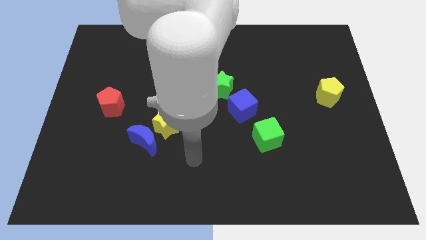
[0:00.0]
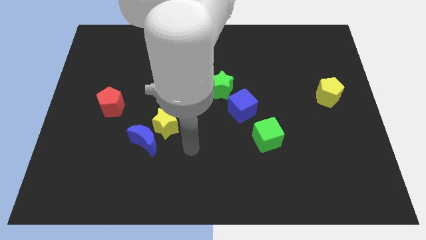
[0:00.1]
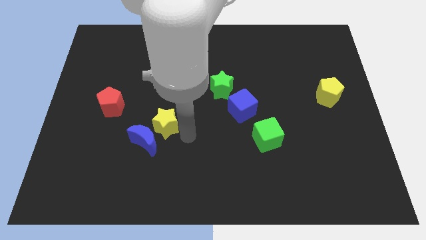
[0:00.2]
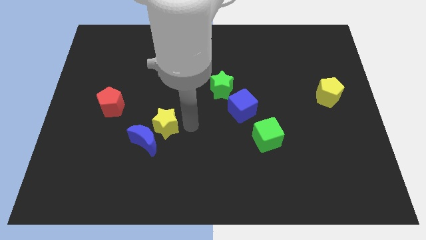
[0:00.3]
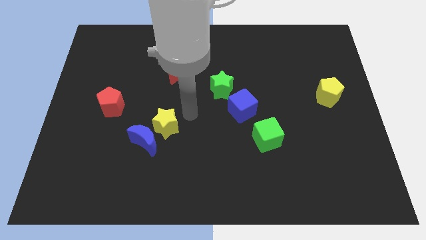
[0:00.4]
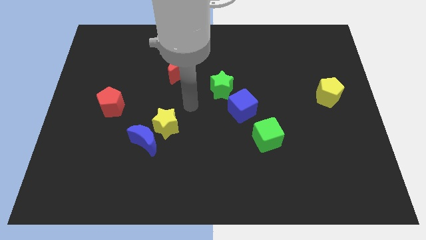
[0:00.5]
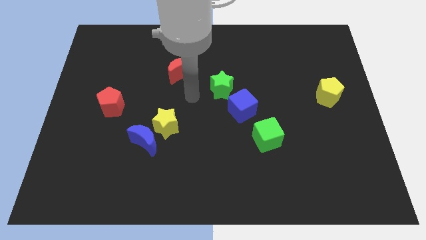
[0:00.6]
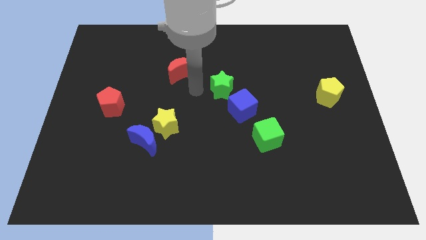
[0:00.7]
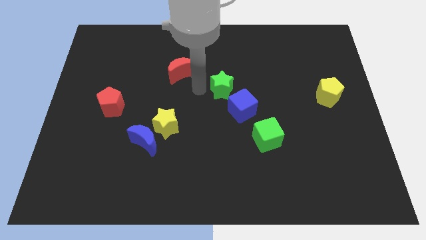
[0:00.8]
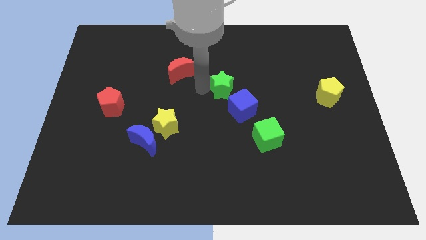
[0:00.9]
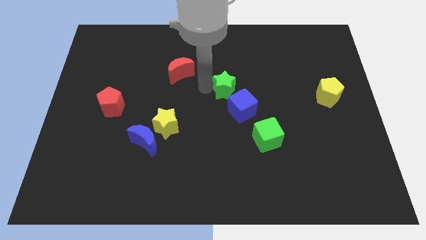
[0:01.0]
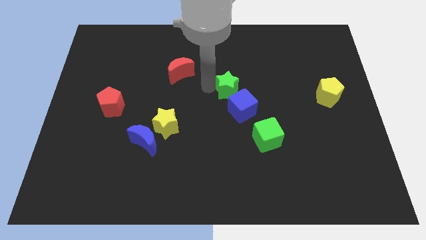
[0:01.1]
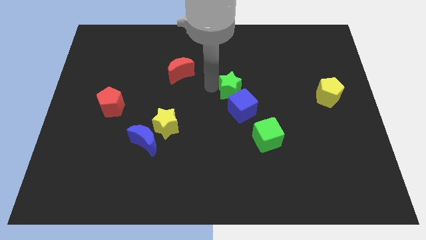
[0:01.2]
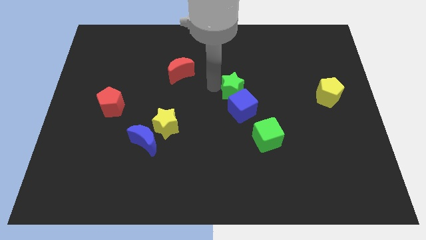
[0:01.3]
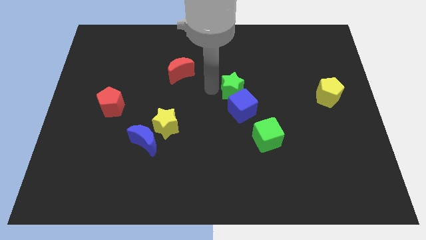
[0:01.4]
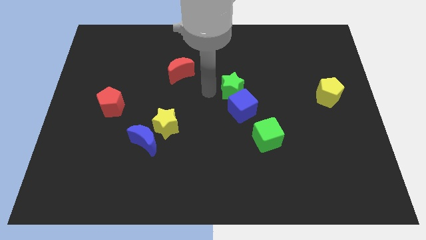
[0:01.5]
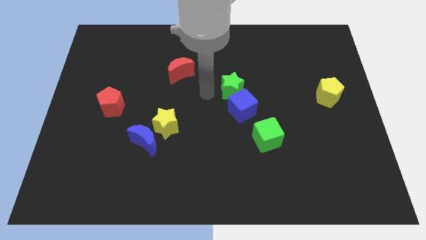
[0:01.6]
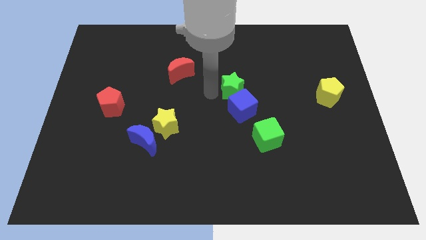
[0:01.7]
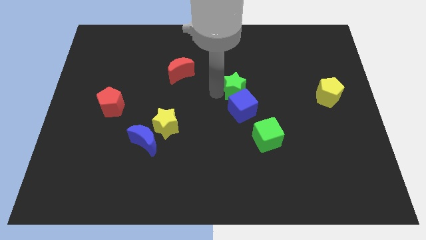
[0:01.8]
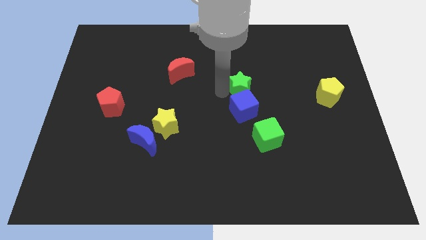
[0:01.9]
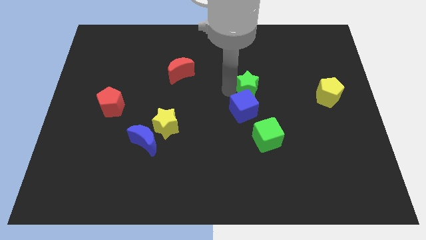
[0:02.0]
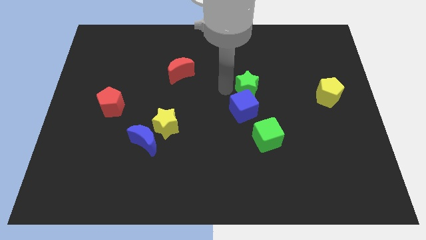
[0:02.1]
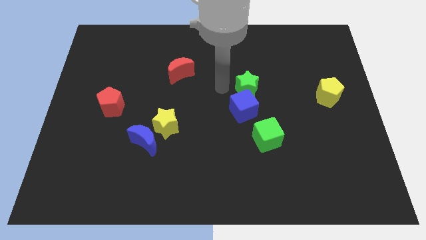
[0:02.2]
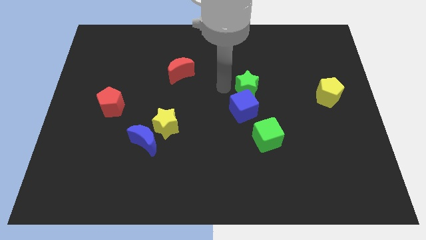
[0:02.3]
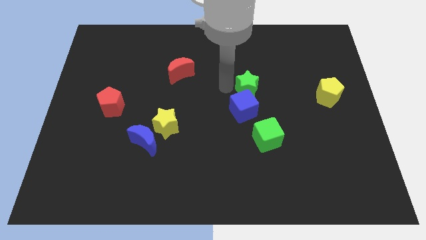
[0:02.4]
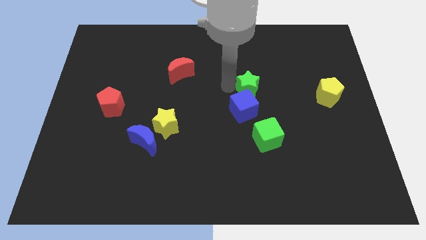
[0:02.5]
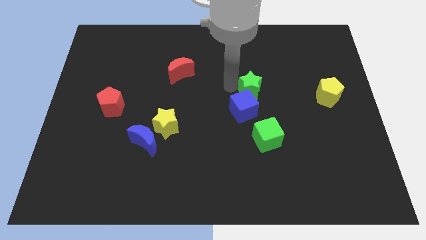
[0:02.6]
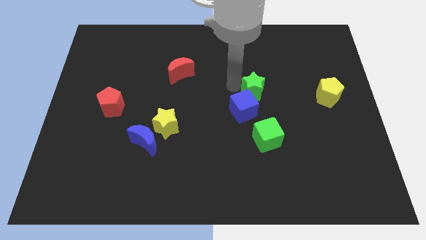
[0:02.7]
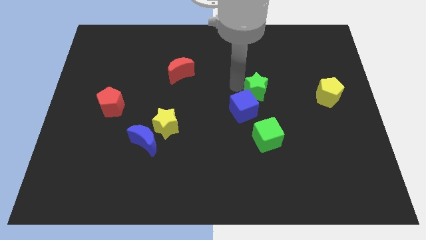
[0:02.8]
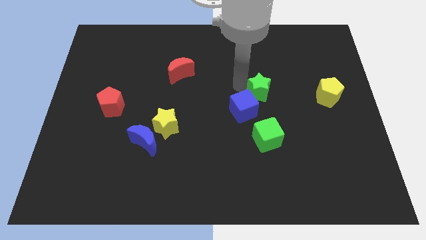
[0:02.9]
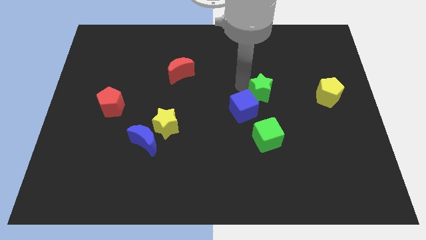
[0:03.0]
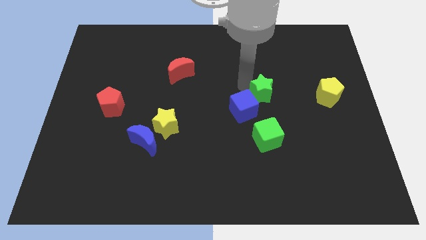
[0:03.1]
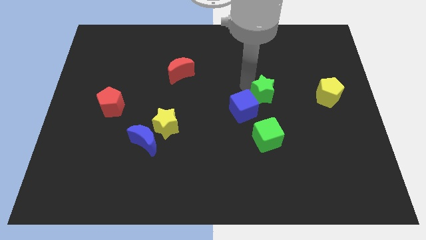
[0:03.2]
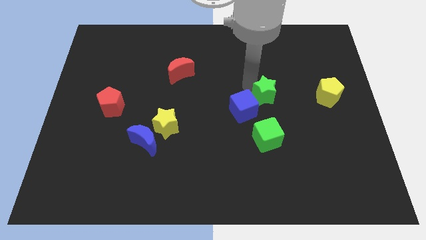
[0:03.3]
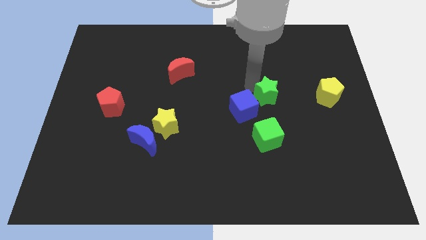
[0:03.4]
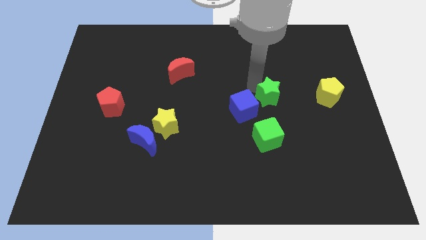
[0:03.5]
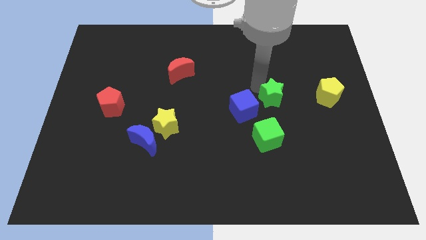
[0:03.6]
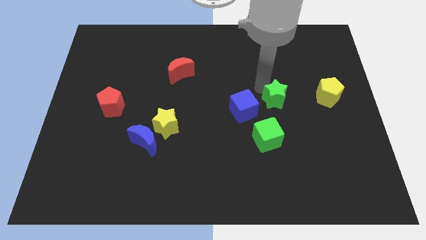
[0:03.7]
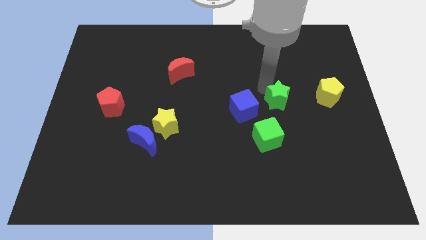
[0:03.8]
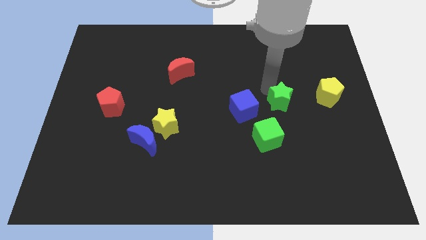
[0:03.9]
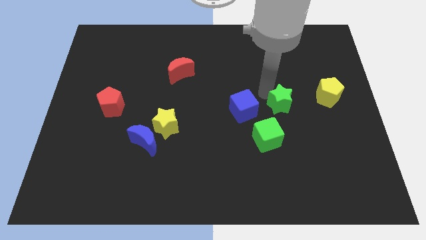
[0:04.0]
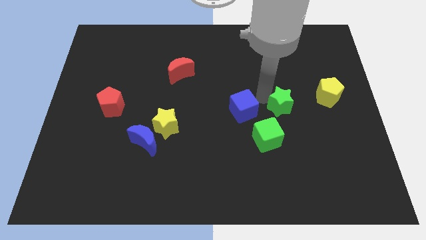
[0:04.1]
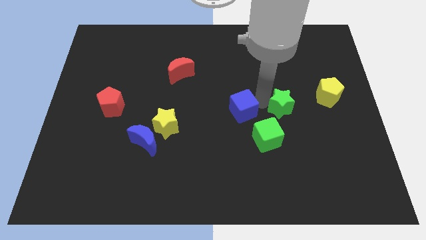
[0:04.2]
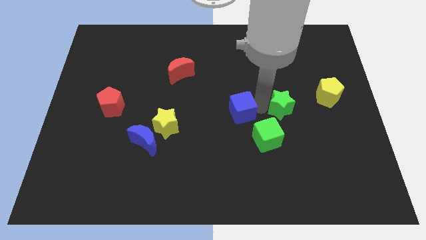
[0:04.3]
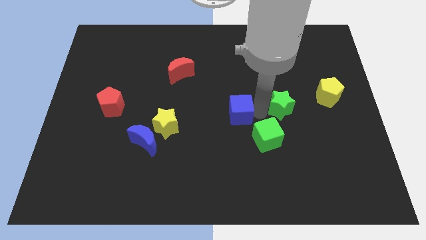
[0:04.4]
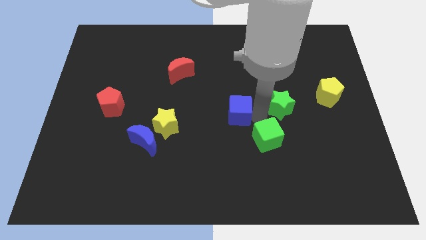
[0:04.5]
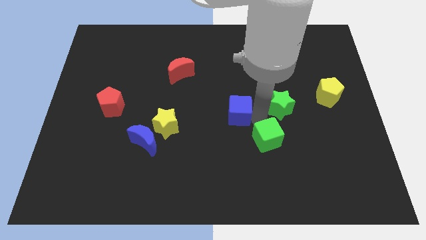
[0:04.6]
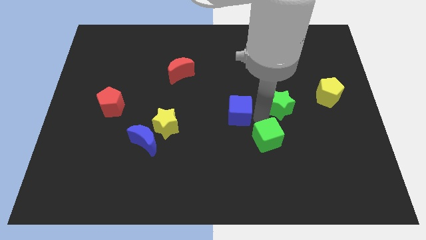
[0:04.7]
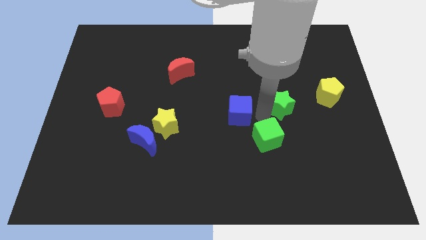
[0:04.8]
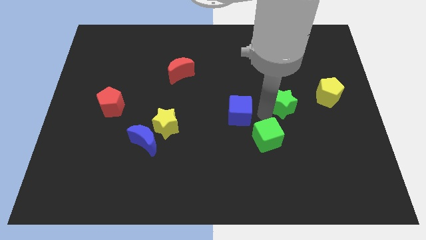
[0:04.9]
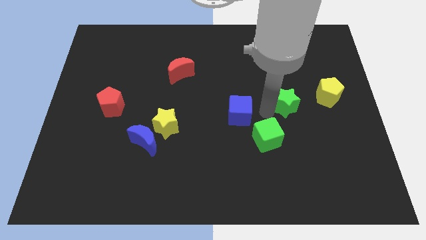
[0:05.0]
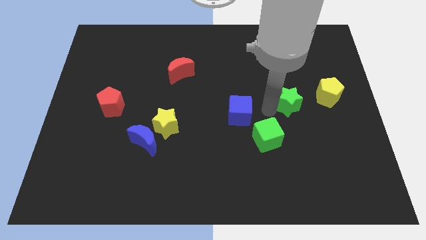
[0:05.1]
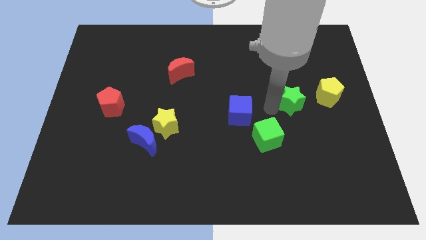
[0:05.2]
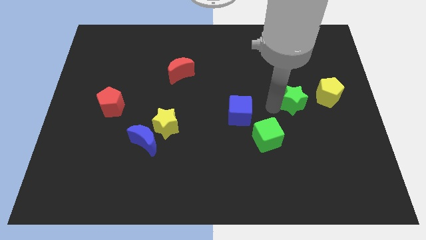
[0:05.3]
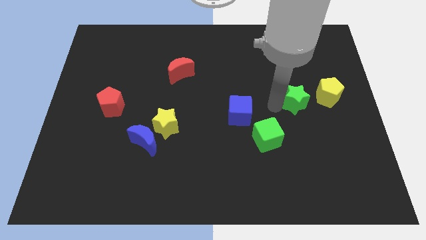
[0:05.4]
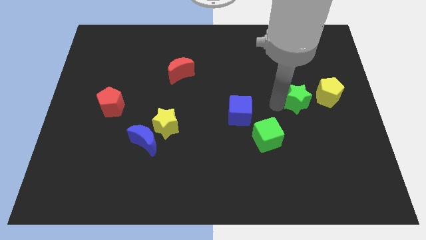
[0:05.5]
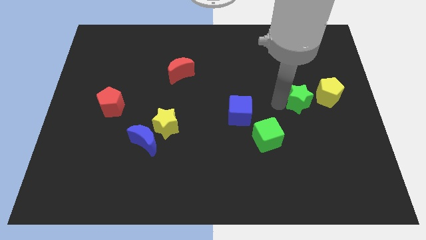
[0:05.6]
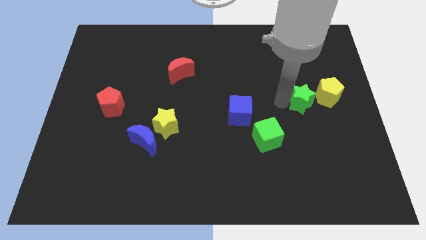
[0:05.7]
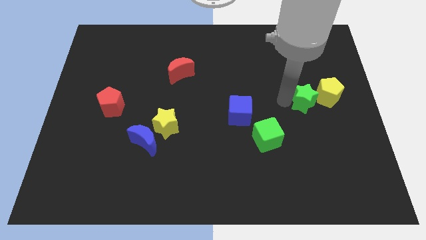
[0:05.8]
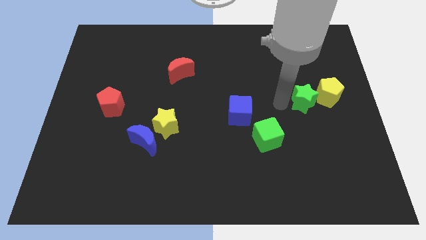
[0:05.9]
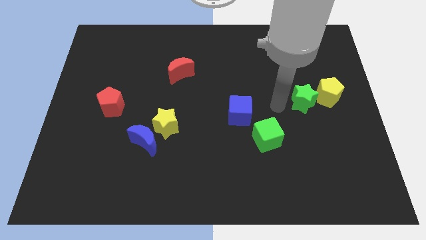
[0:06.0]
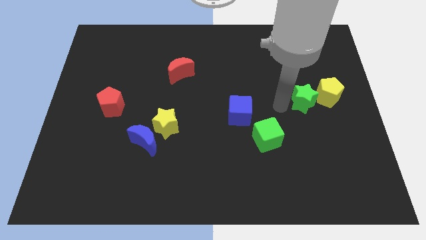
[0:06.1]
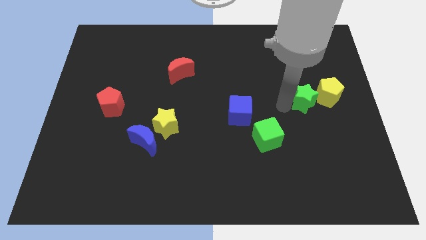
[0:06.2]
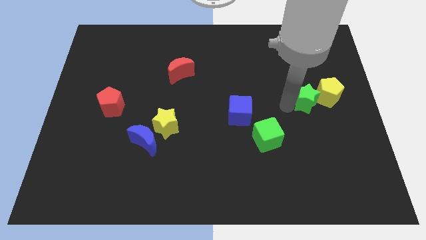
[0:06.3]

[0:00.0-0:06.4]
move the green star close to the yellow pentagon
